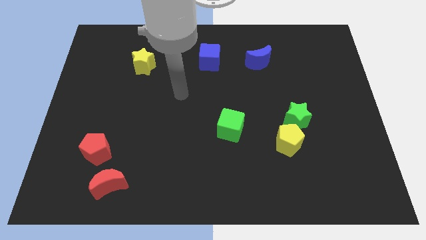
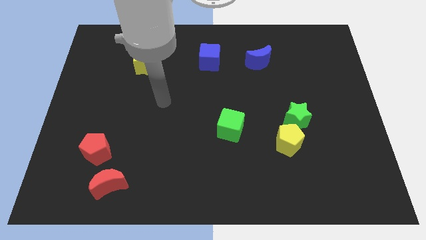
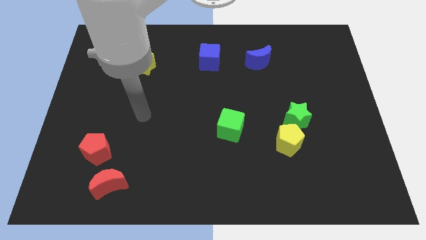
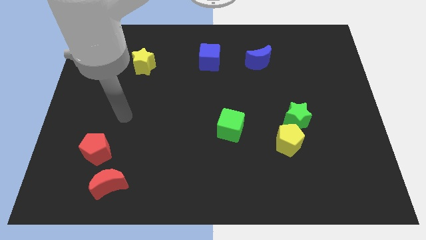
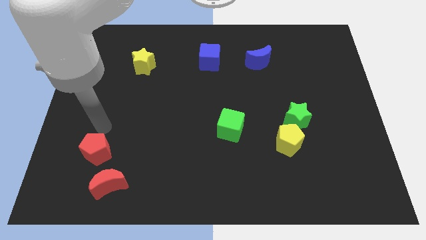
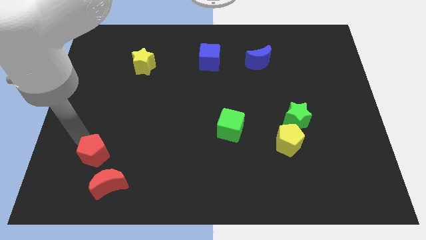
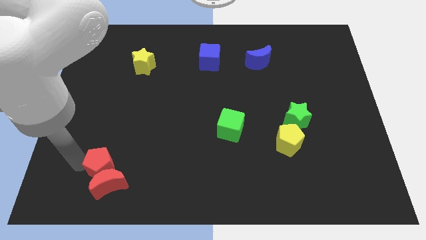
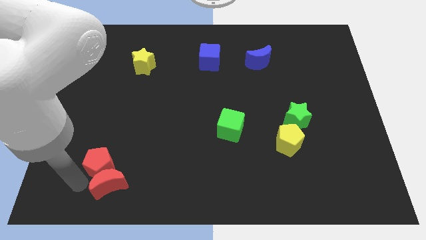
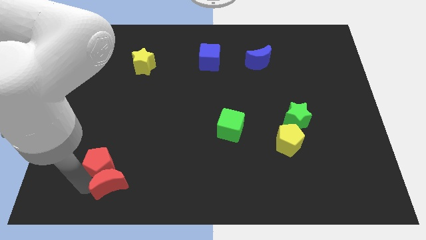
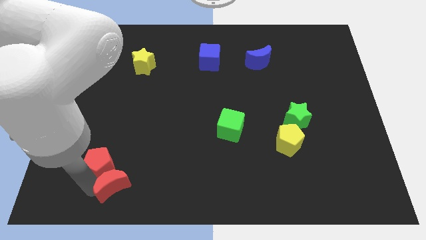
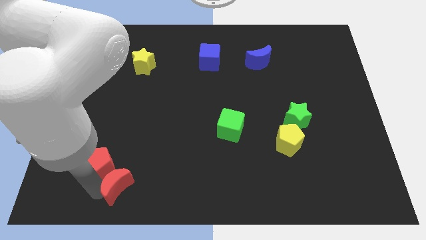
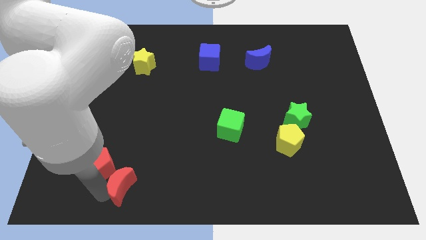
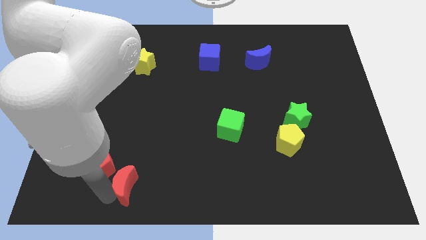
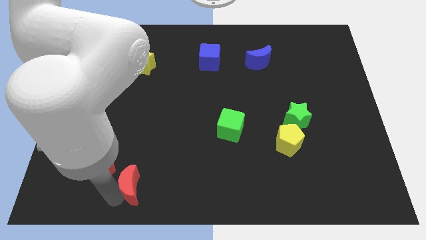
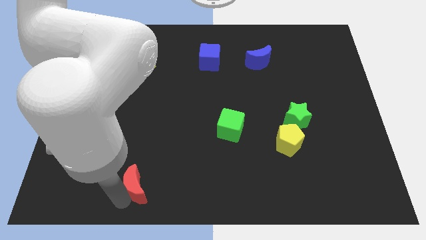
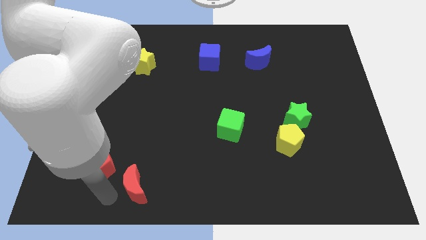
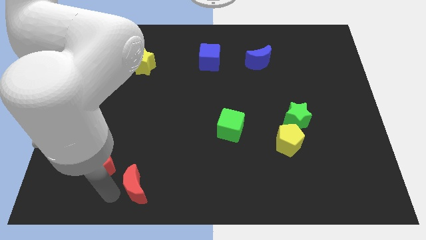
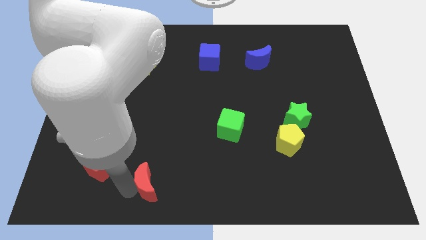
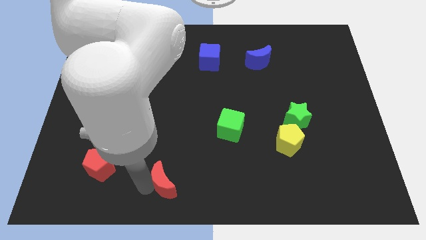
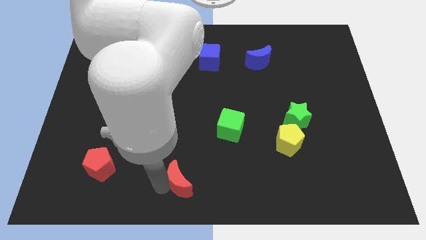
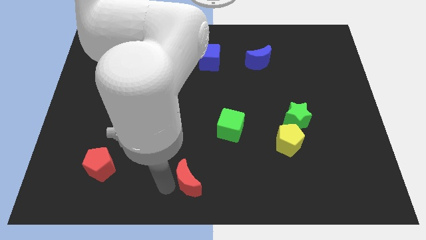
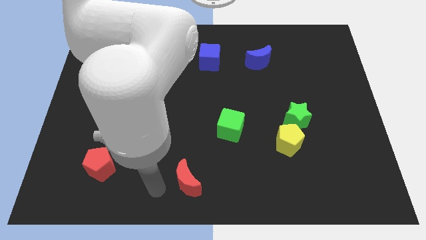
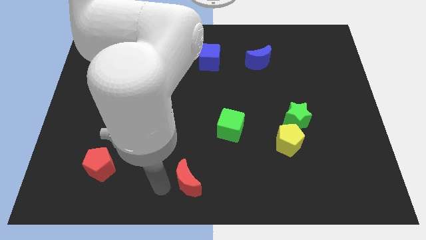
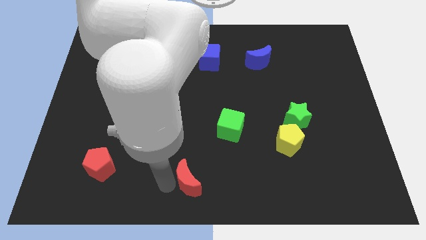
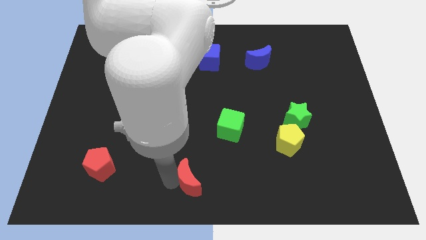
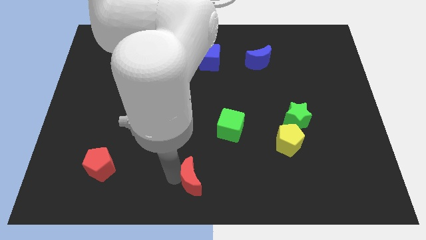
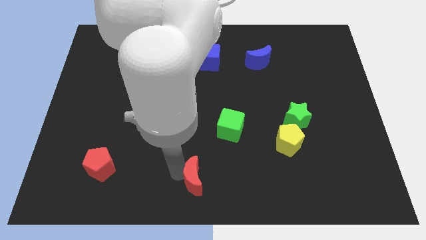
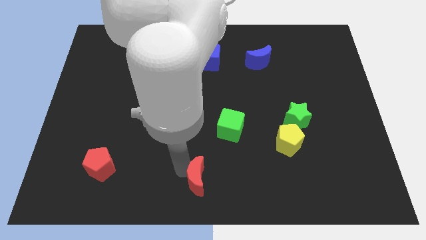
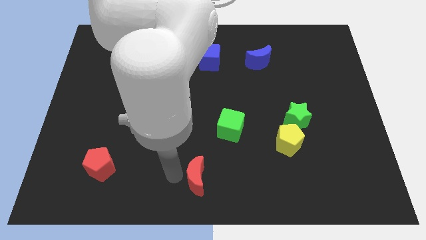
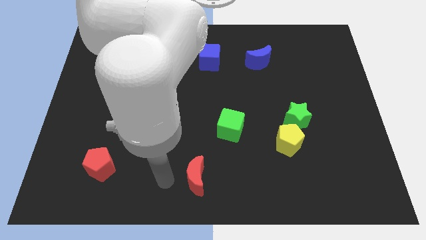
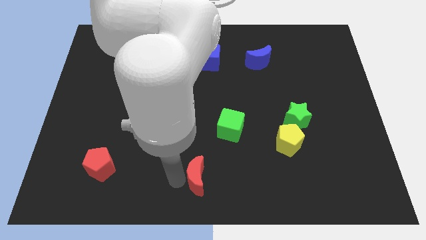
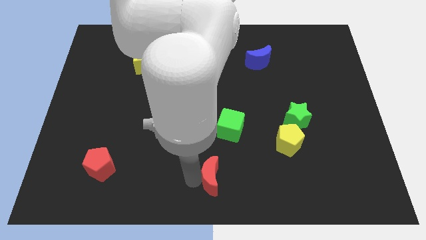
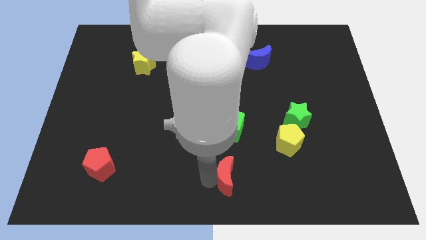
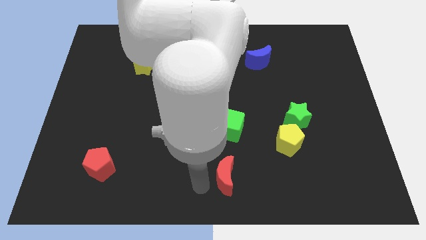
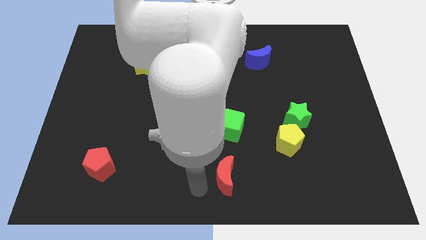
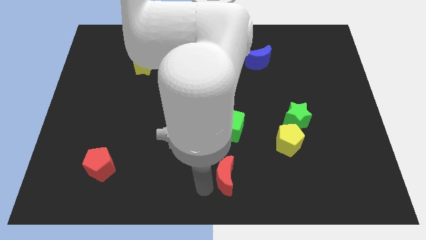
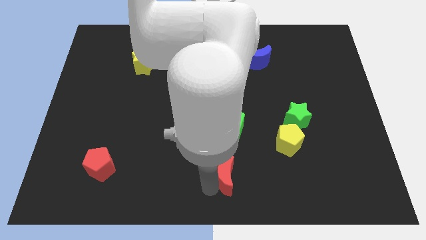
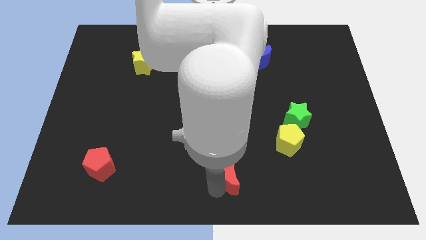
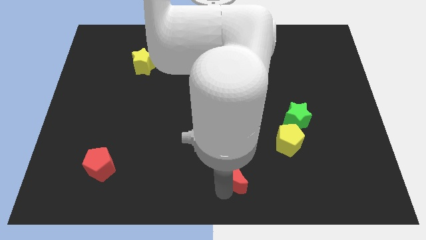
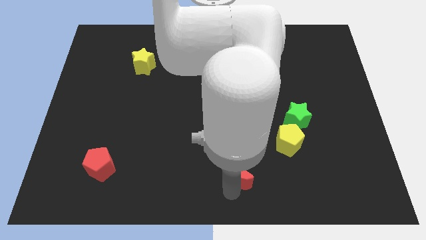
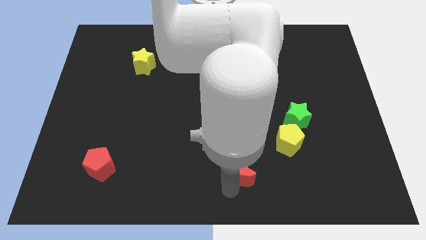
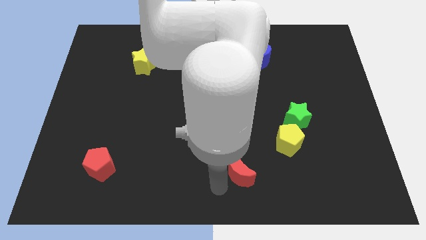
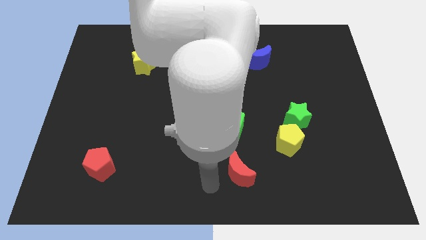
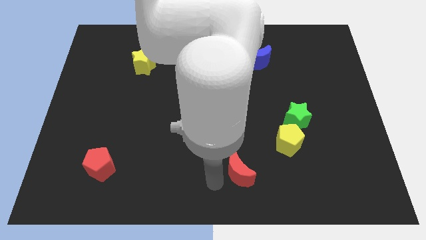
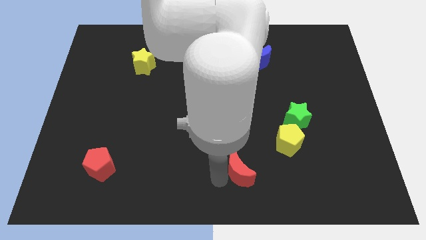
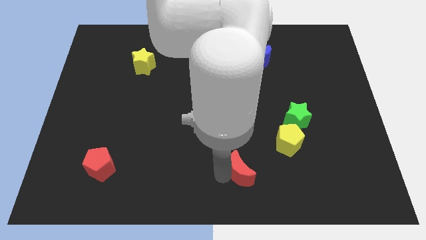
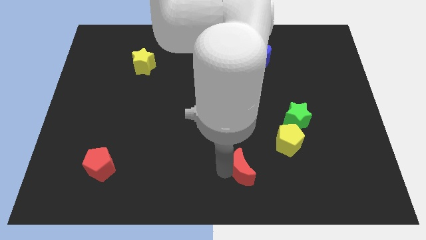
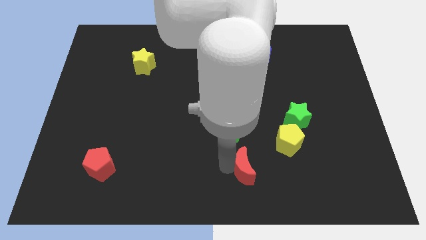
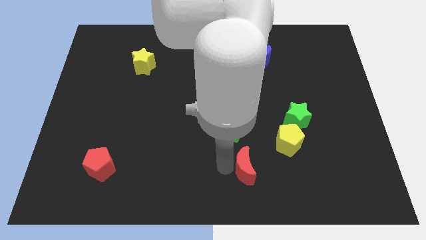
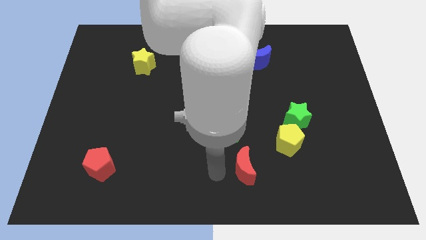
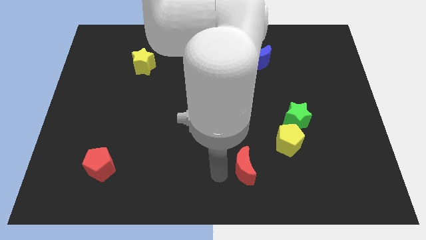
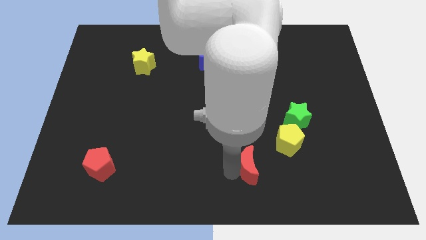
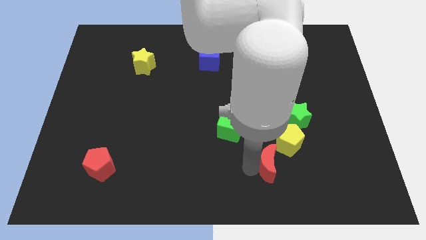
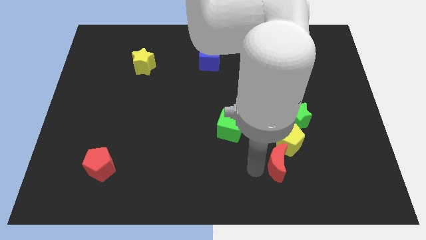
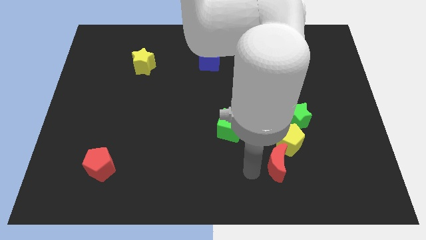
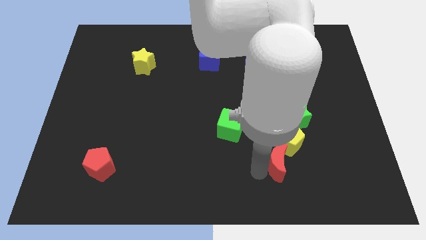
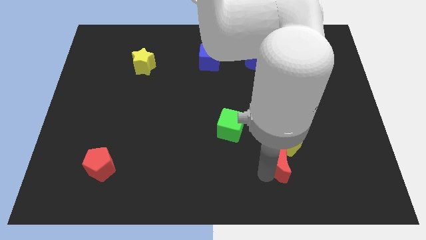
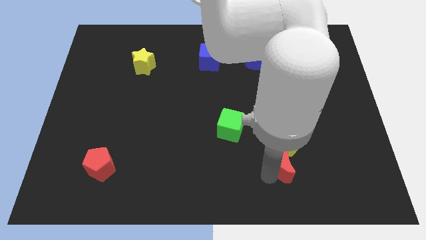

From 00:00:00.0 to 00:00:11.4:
slide the red moon to the bottom side of the green star
